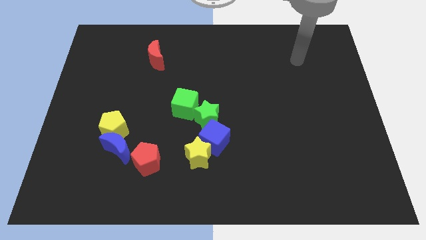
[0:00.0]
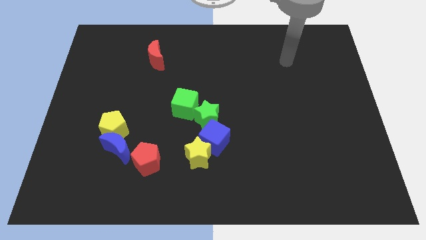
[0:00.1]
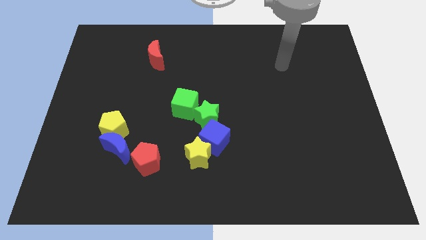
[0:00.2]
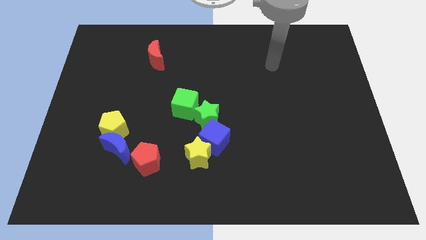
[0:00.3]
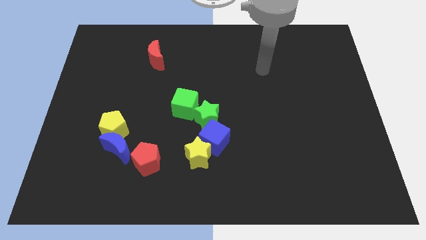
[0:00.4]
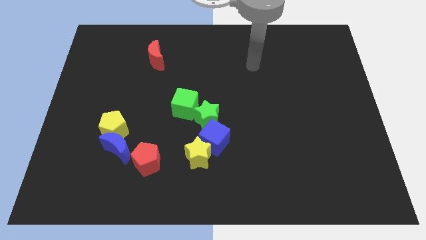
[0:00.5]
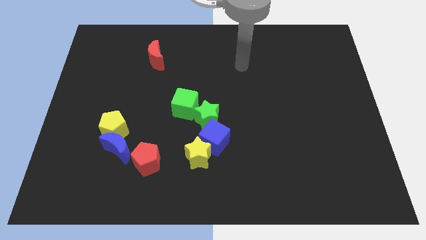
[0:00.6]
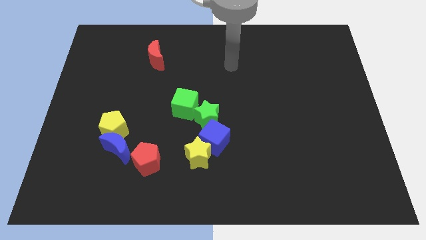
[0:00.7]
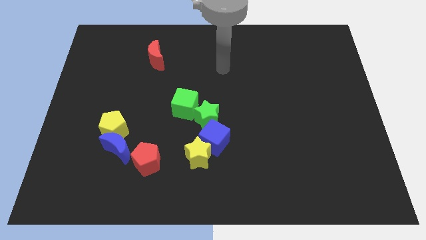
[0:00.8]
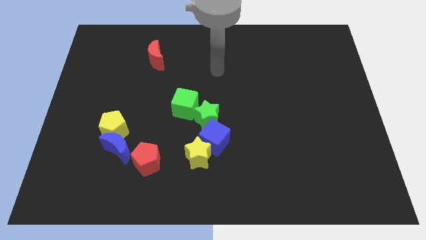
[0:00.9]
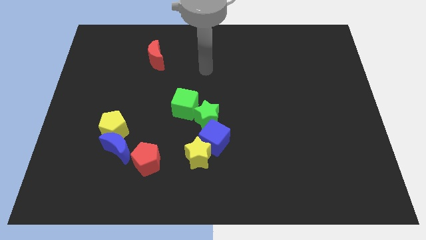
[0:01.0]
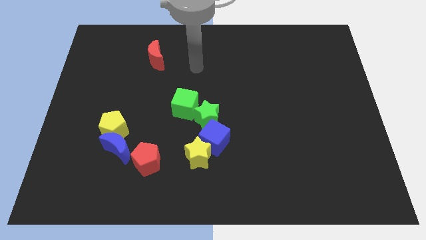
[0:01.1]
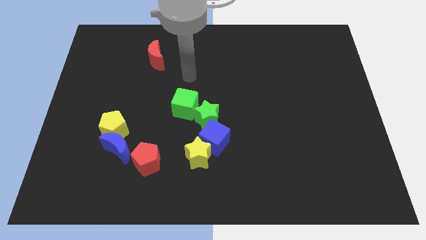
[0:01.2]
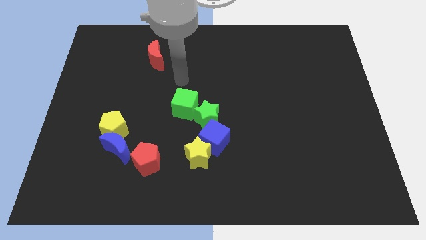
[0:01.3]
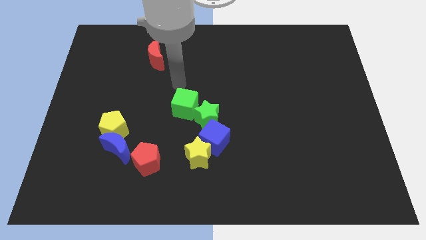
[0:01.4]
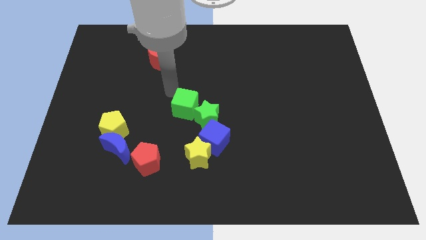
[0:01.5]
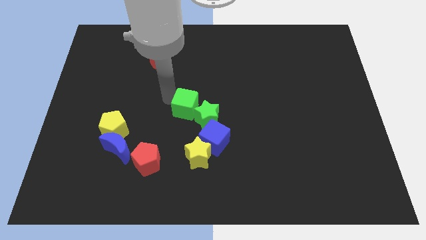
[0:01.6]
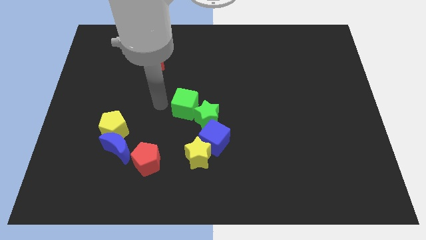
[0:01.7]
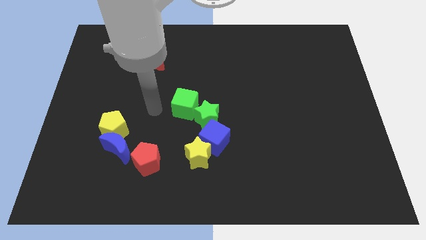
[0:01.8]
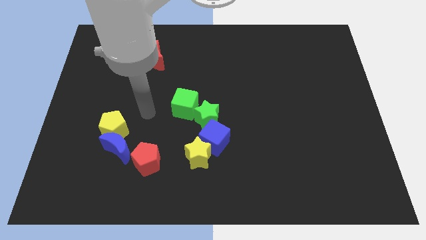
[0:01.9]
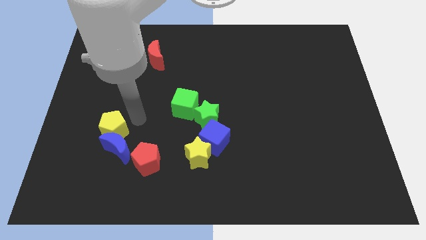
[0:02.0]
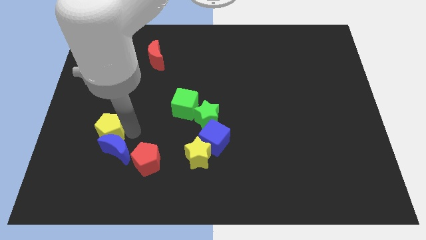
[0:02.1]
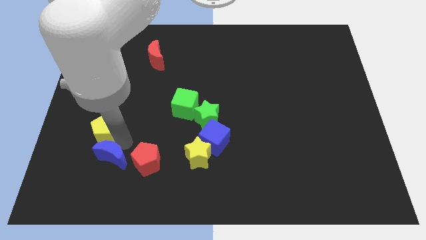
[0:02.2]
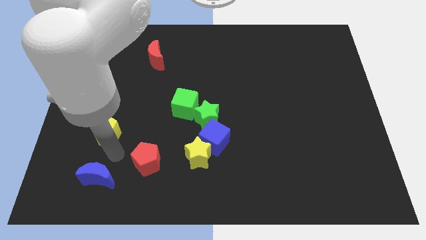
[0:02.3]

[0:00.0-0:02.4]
pull the yellow pentagon apart from the blue moon

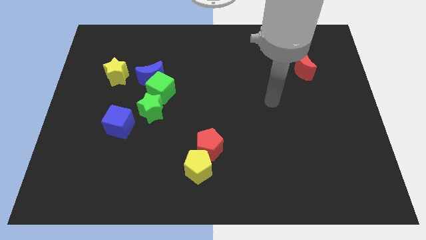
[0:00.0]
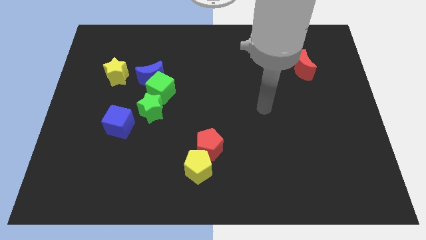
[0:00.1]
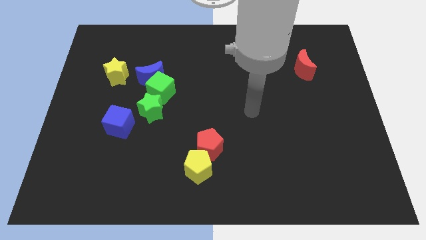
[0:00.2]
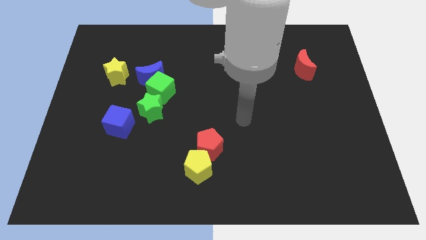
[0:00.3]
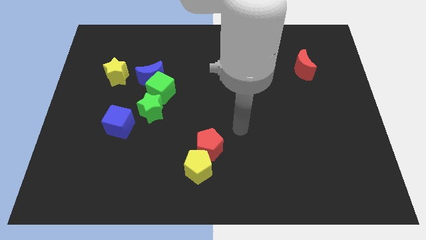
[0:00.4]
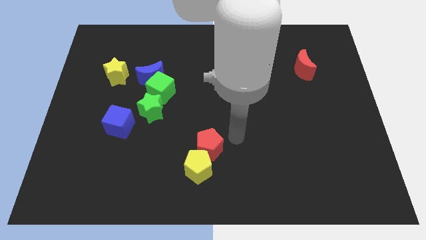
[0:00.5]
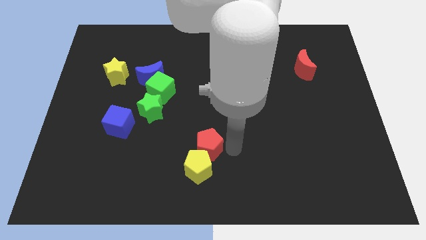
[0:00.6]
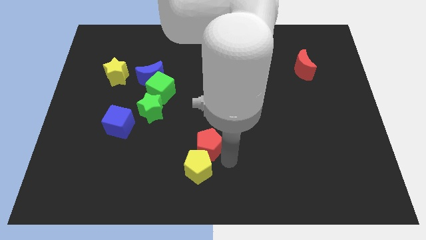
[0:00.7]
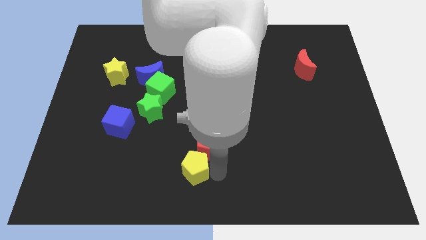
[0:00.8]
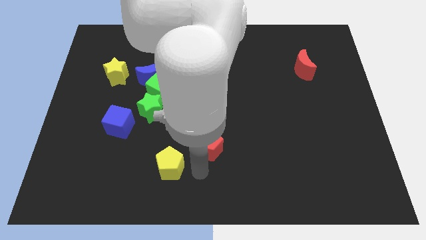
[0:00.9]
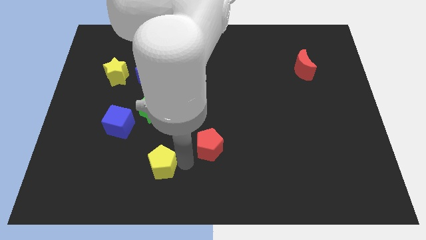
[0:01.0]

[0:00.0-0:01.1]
move the red pentagon away from the yellow pentagon

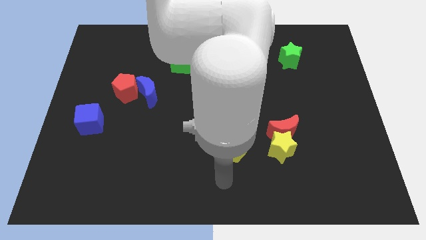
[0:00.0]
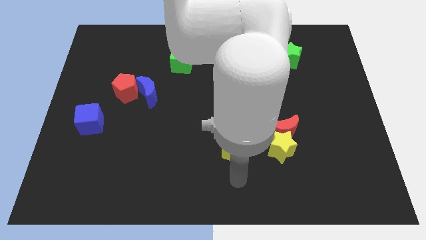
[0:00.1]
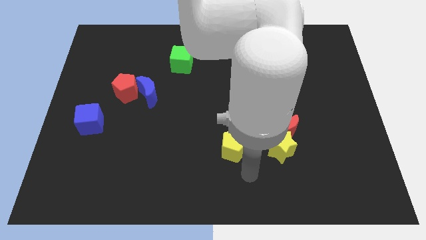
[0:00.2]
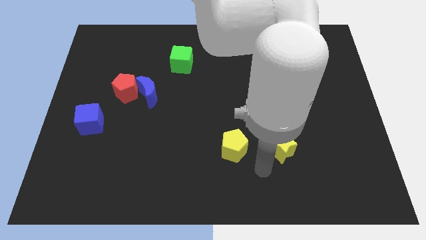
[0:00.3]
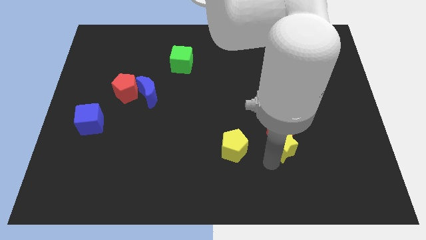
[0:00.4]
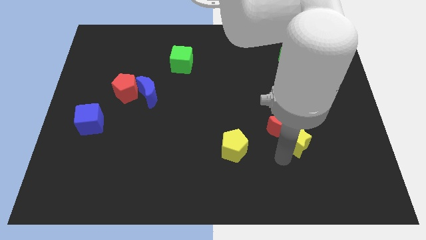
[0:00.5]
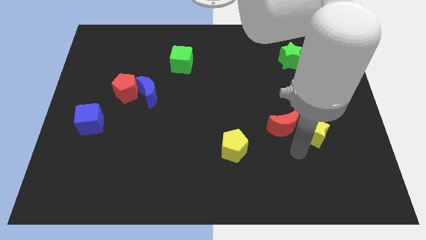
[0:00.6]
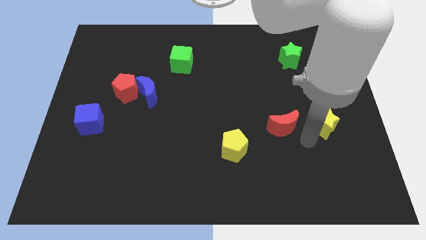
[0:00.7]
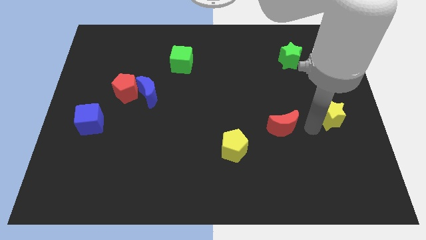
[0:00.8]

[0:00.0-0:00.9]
separate the red moon from the yellow star

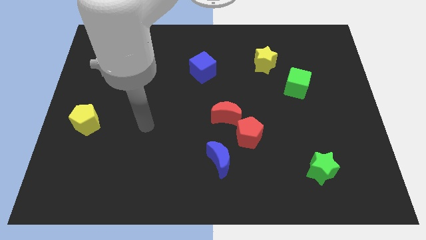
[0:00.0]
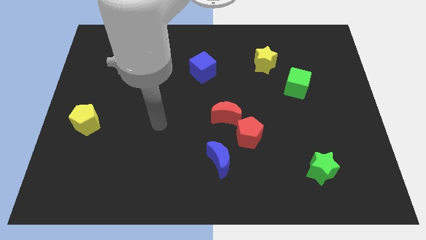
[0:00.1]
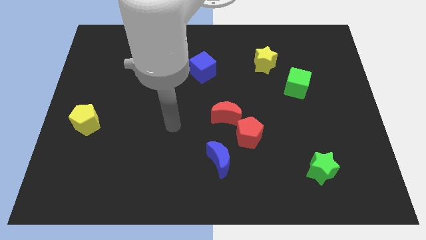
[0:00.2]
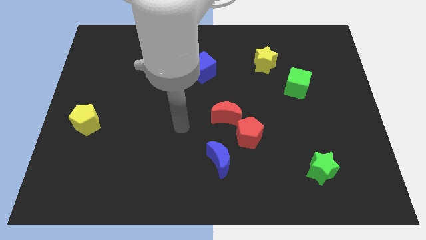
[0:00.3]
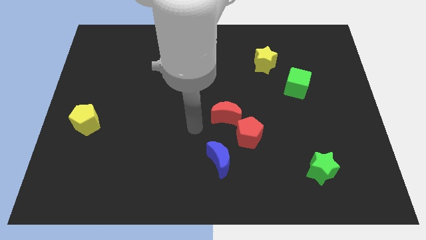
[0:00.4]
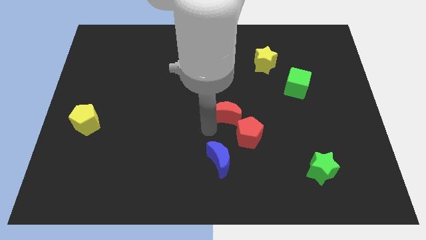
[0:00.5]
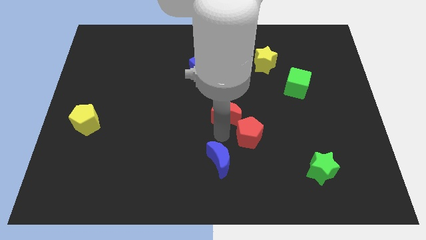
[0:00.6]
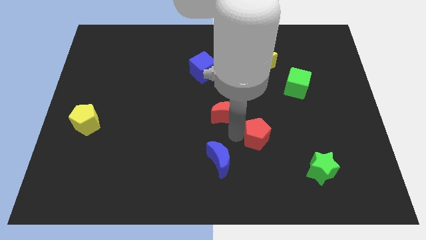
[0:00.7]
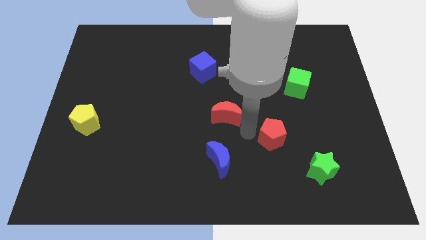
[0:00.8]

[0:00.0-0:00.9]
move the red moon away from the red pentagon

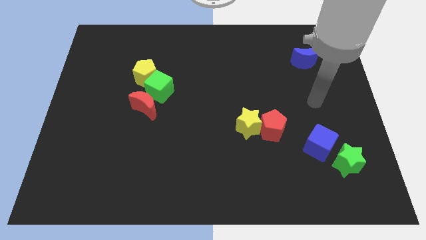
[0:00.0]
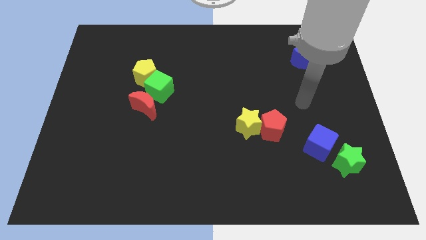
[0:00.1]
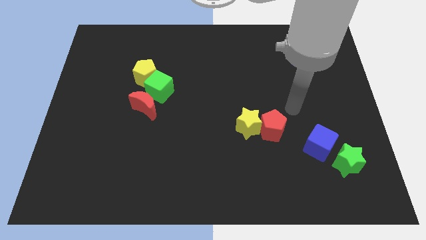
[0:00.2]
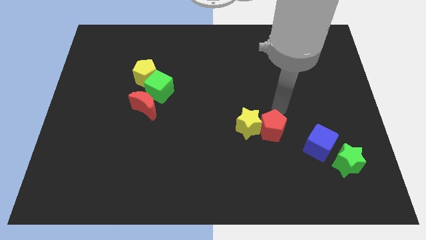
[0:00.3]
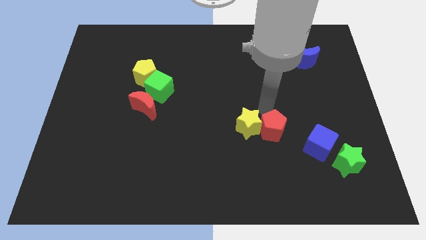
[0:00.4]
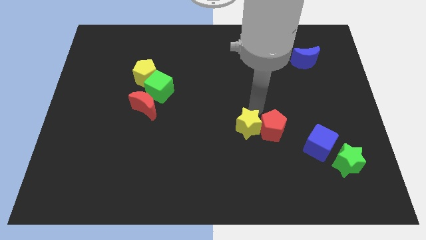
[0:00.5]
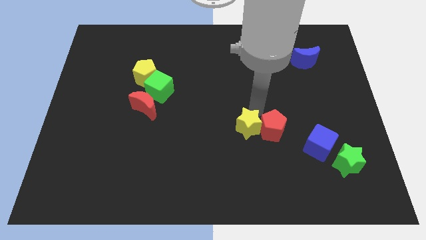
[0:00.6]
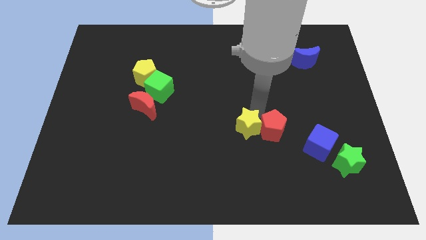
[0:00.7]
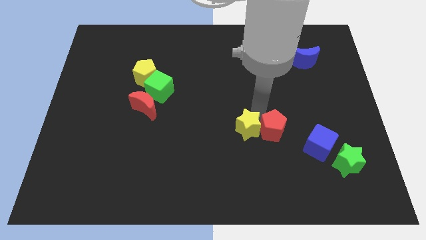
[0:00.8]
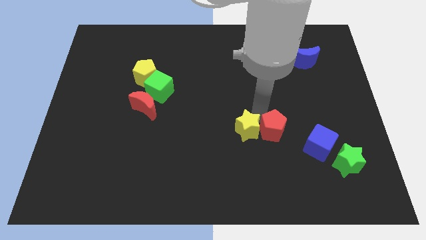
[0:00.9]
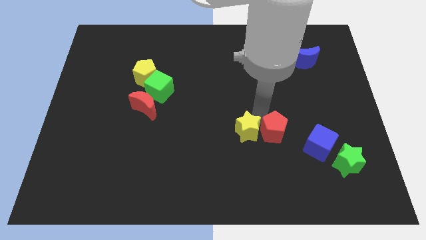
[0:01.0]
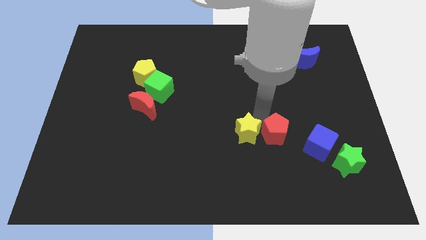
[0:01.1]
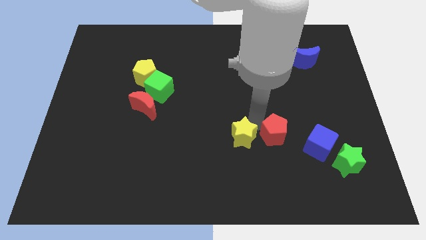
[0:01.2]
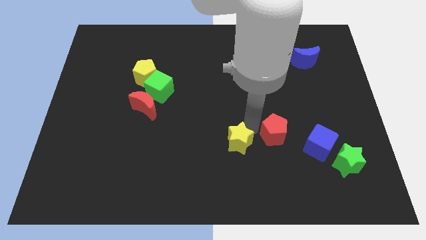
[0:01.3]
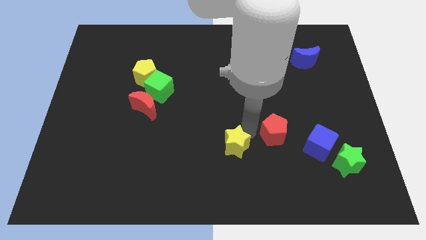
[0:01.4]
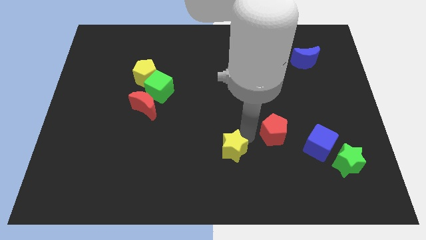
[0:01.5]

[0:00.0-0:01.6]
separate the red pentagon from the yellow star

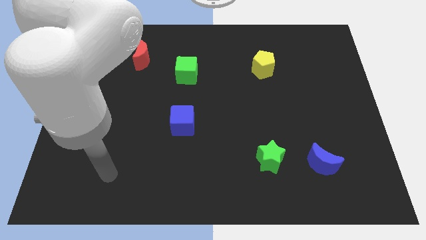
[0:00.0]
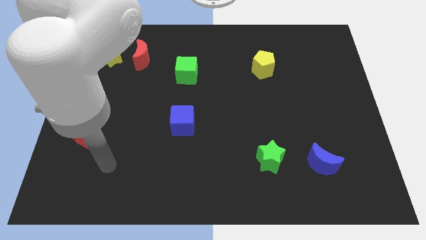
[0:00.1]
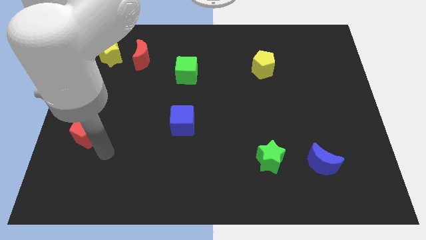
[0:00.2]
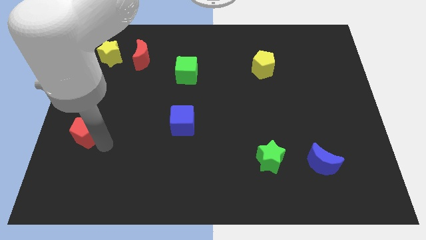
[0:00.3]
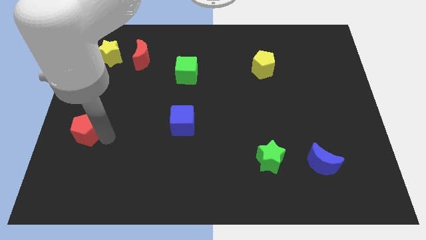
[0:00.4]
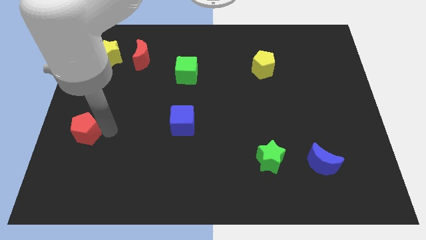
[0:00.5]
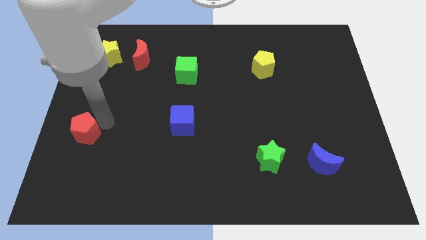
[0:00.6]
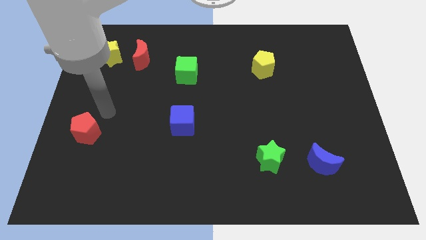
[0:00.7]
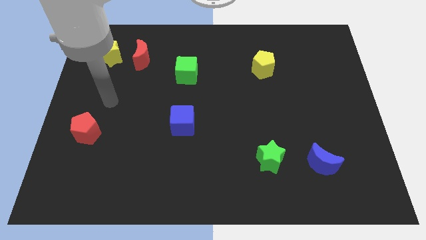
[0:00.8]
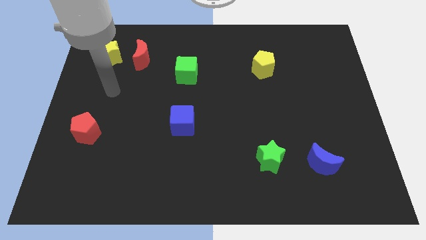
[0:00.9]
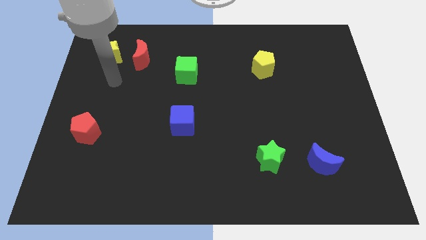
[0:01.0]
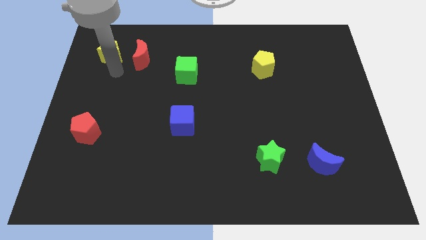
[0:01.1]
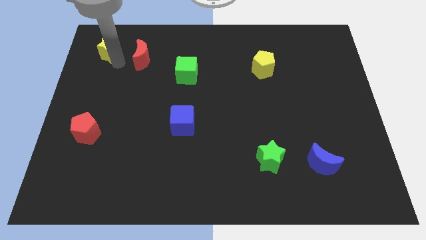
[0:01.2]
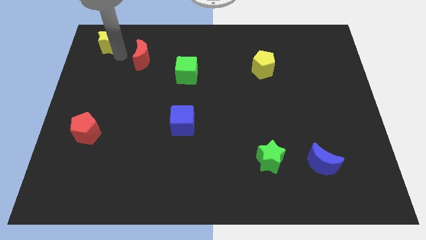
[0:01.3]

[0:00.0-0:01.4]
move the red moon away from the yellow star

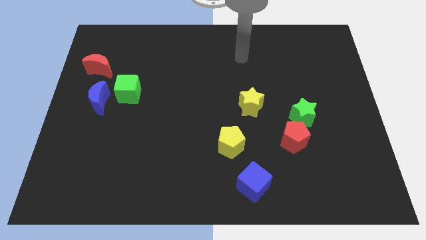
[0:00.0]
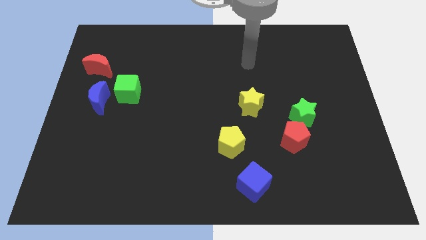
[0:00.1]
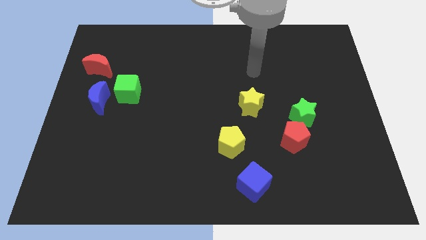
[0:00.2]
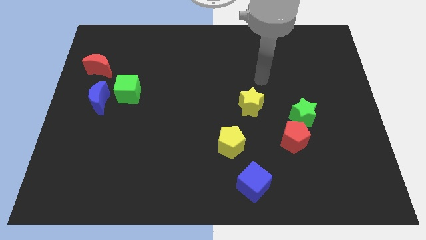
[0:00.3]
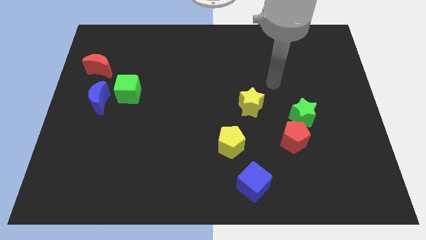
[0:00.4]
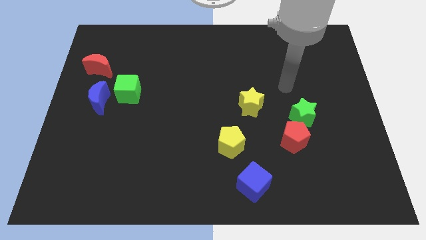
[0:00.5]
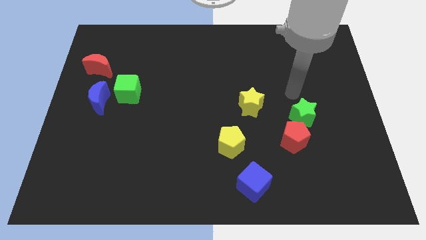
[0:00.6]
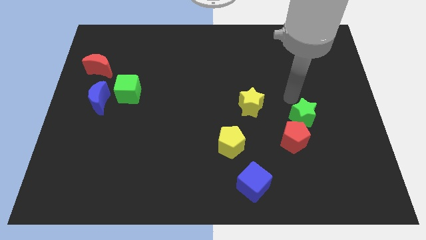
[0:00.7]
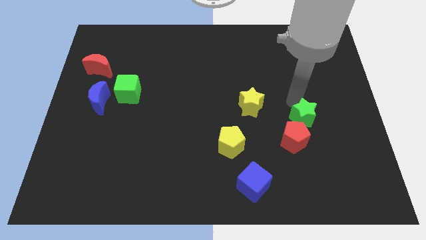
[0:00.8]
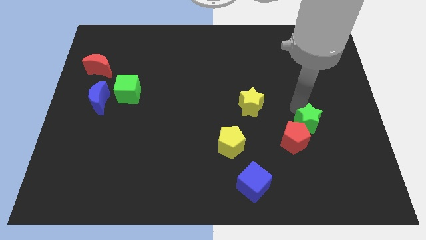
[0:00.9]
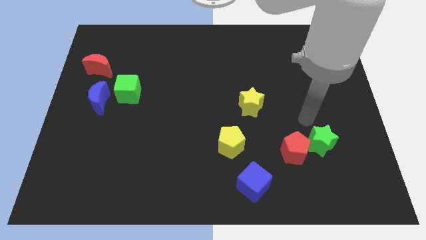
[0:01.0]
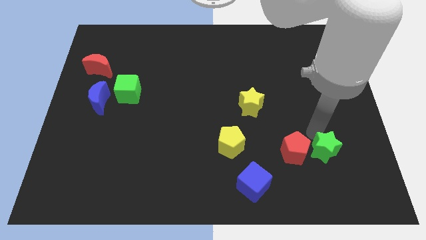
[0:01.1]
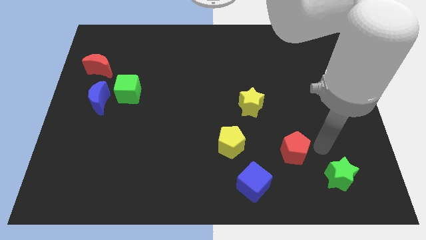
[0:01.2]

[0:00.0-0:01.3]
pull the red pentagon apart from the green star
